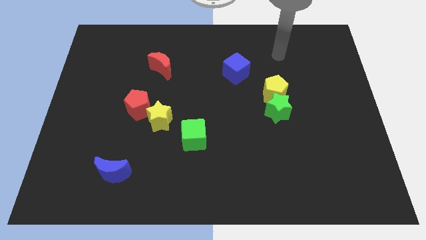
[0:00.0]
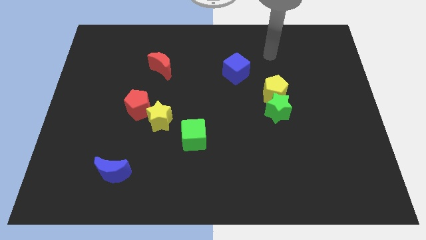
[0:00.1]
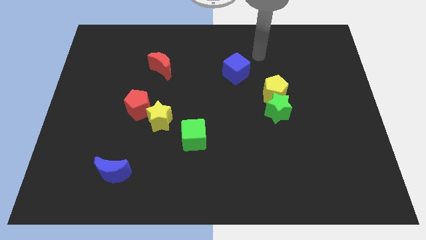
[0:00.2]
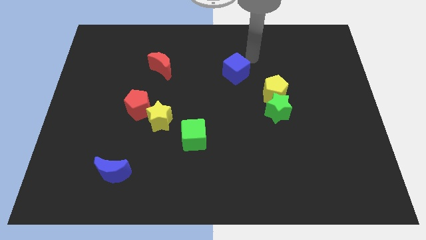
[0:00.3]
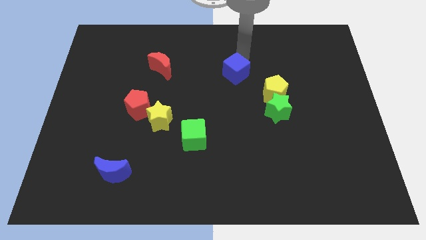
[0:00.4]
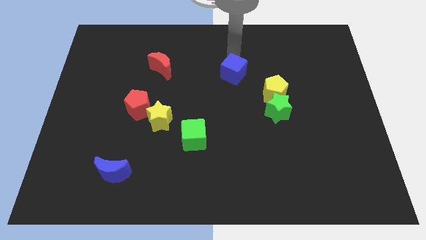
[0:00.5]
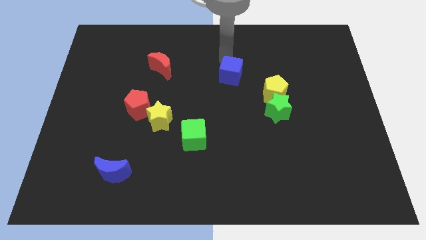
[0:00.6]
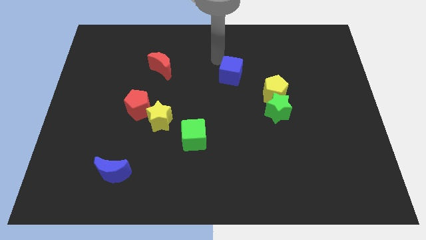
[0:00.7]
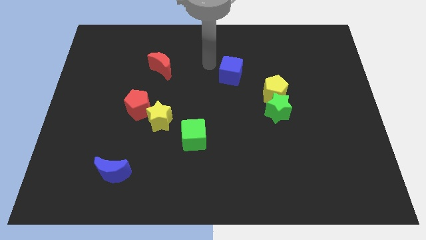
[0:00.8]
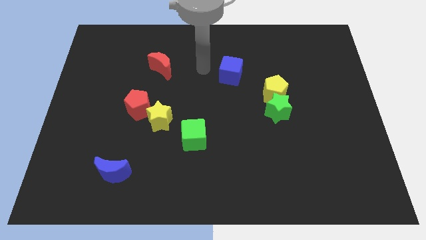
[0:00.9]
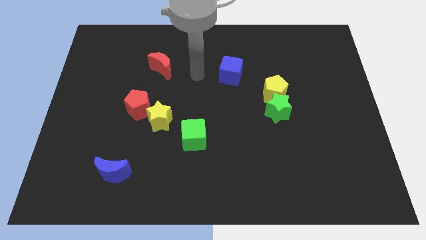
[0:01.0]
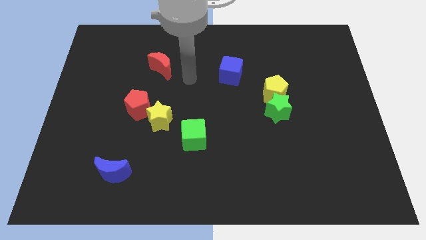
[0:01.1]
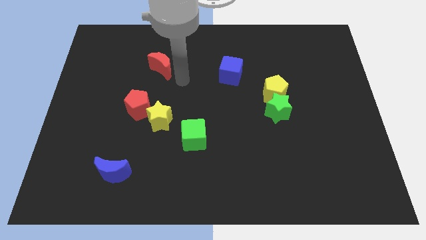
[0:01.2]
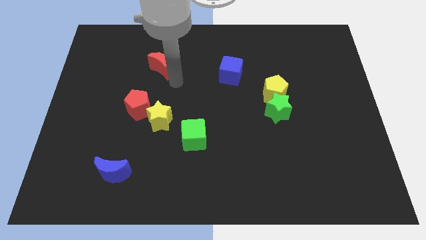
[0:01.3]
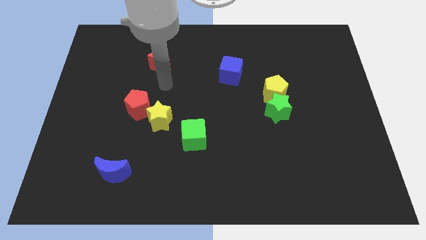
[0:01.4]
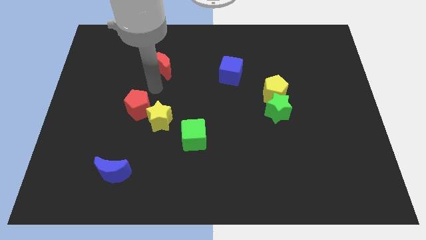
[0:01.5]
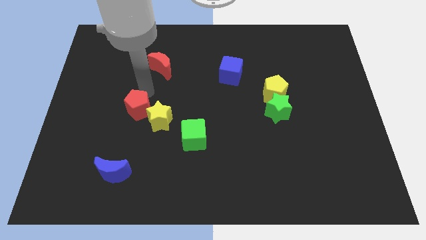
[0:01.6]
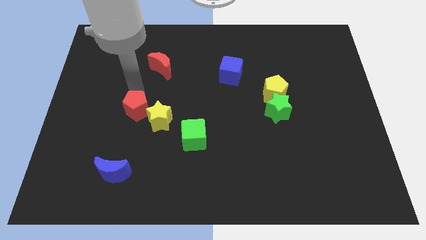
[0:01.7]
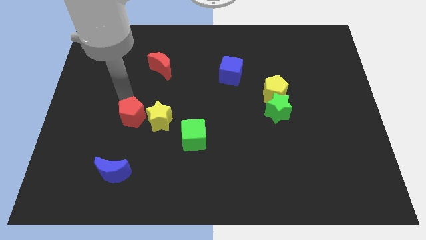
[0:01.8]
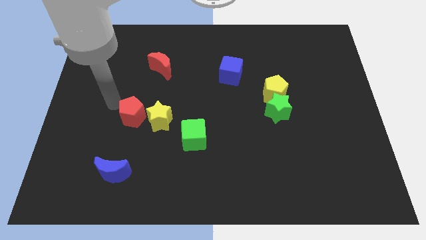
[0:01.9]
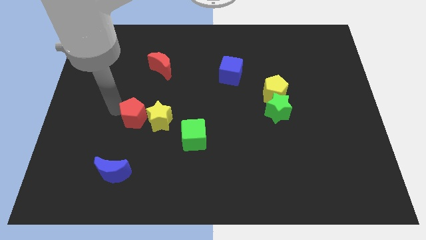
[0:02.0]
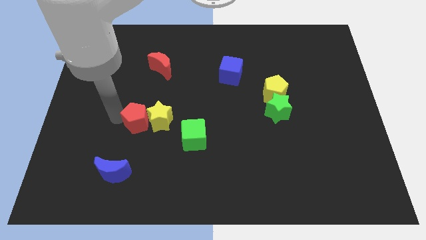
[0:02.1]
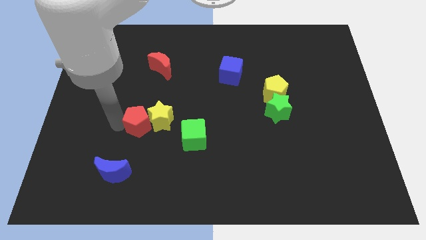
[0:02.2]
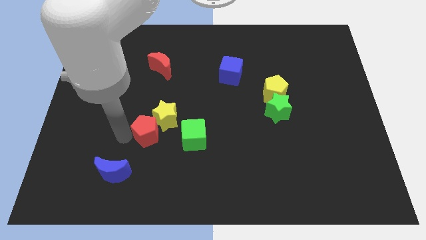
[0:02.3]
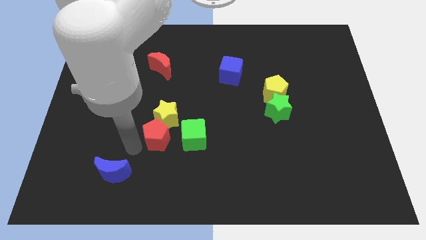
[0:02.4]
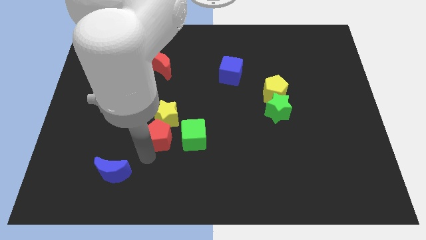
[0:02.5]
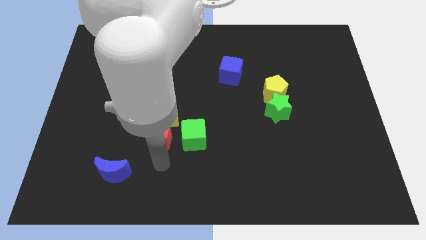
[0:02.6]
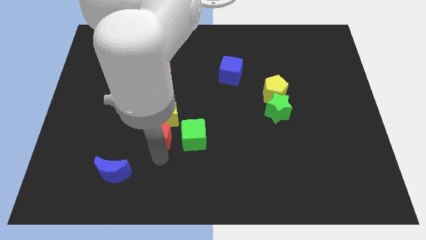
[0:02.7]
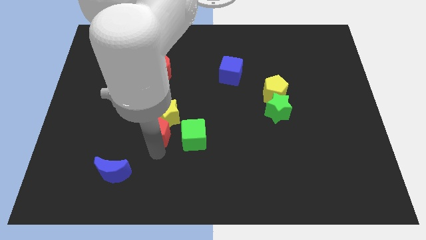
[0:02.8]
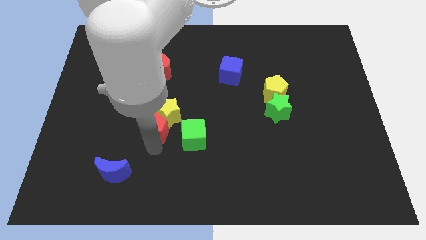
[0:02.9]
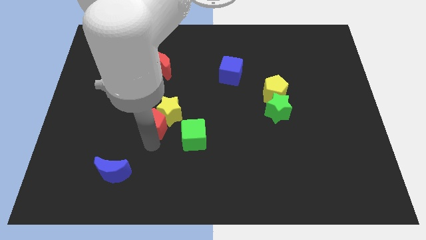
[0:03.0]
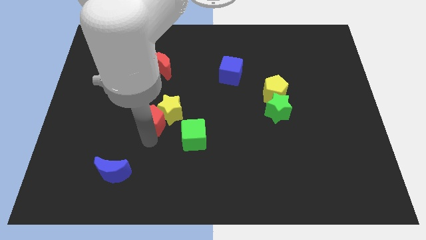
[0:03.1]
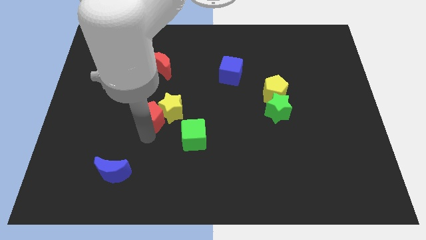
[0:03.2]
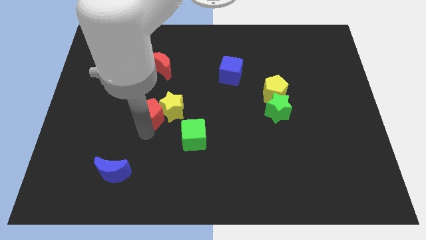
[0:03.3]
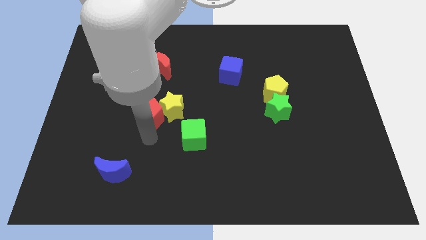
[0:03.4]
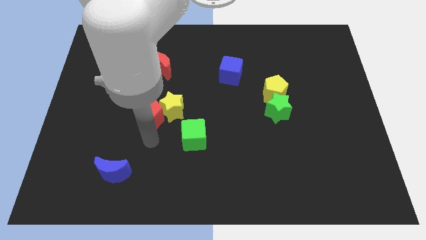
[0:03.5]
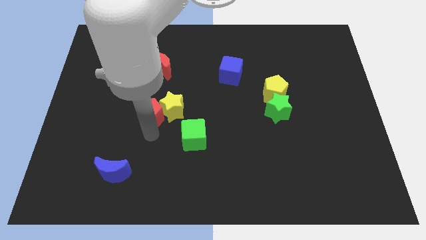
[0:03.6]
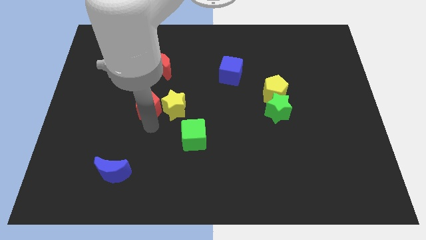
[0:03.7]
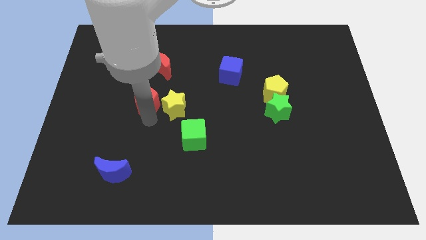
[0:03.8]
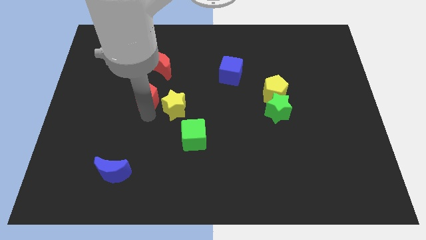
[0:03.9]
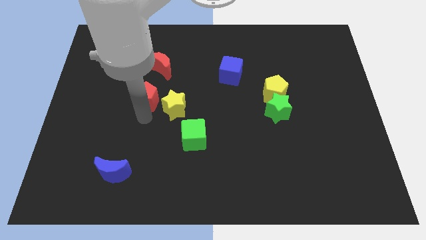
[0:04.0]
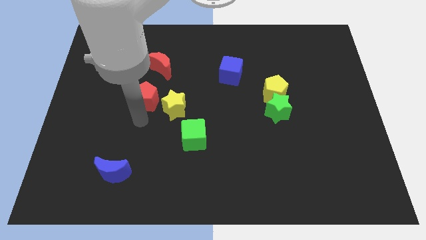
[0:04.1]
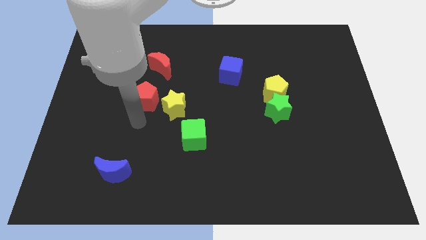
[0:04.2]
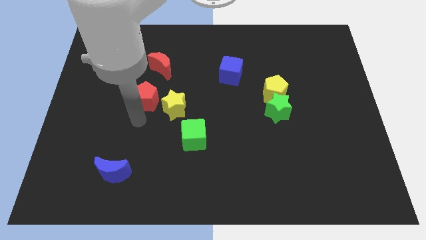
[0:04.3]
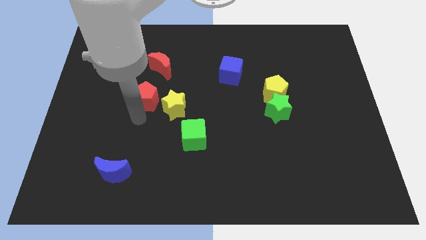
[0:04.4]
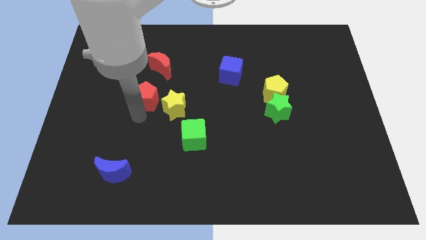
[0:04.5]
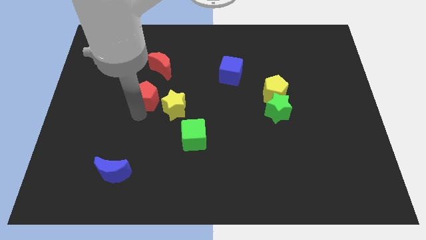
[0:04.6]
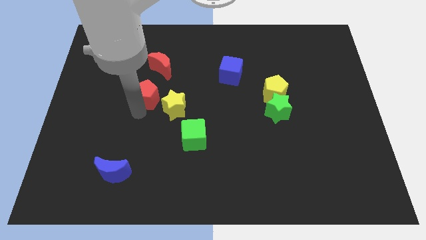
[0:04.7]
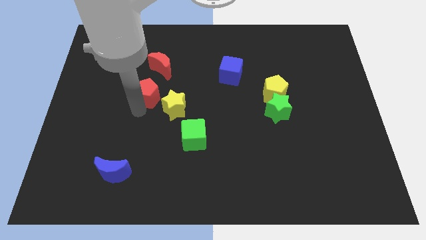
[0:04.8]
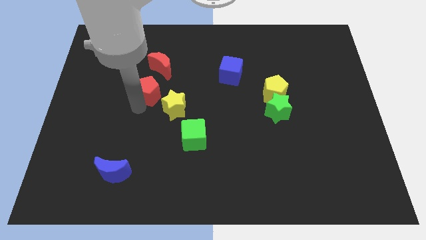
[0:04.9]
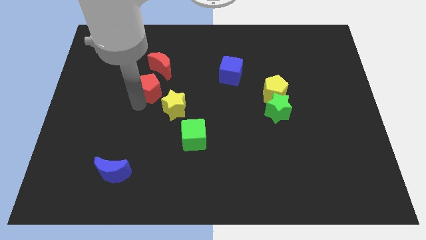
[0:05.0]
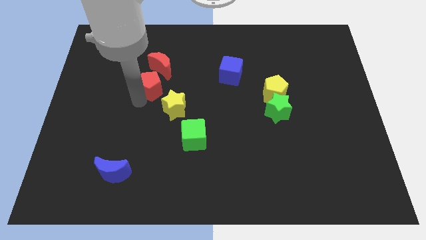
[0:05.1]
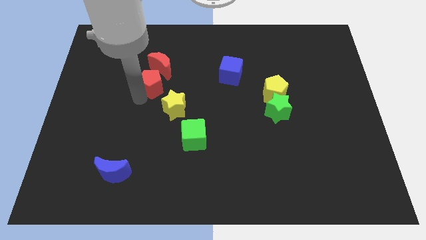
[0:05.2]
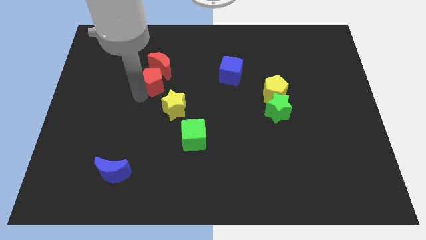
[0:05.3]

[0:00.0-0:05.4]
put the red pentagon close to the red moon

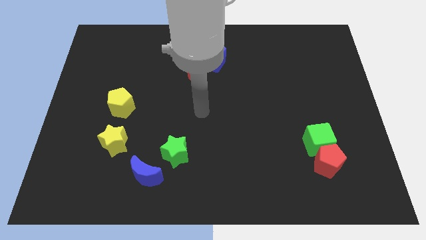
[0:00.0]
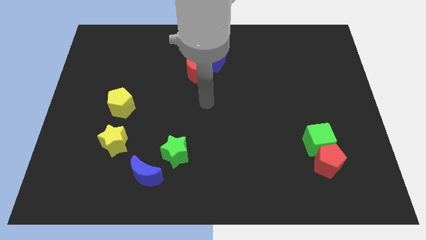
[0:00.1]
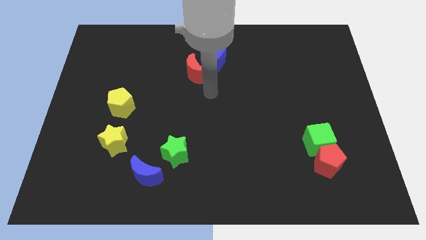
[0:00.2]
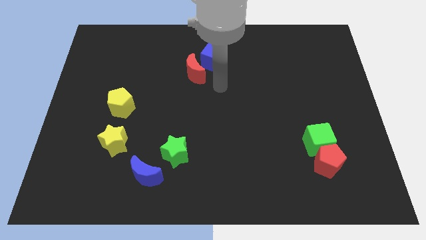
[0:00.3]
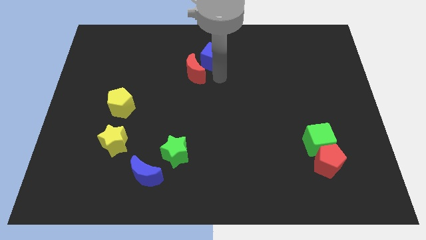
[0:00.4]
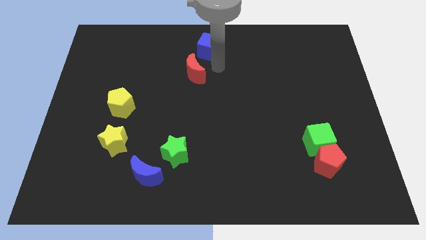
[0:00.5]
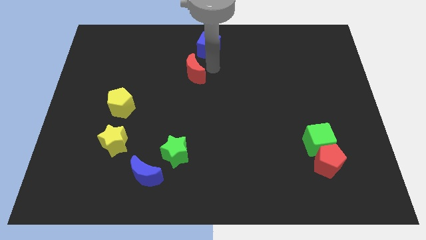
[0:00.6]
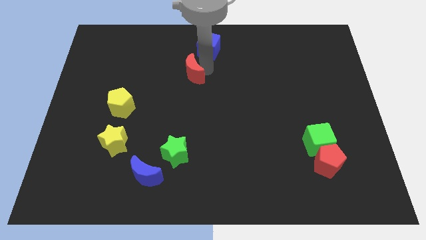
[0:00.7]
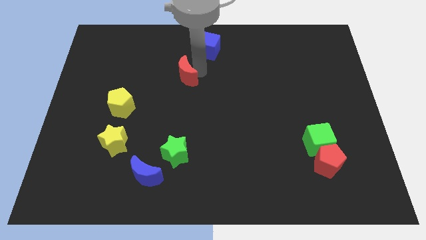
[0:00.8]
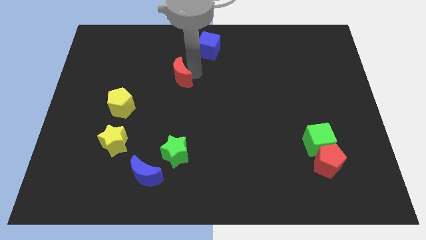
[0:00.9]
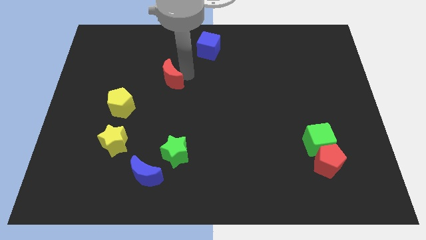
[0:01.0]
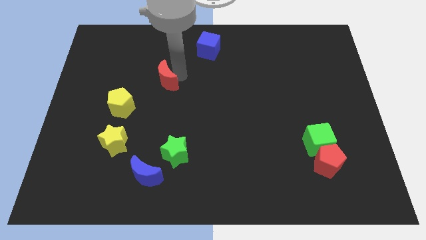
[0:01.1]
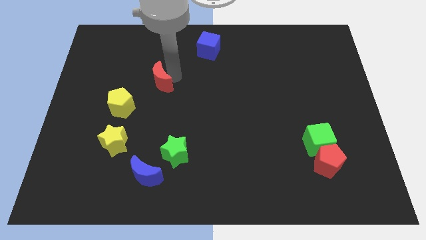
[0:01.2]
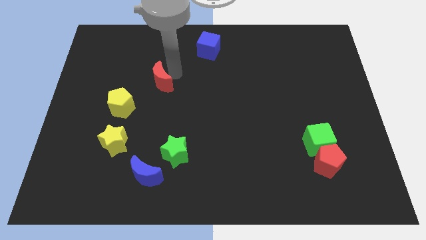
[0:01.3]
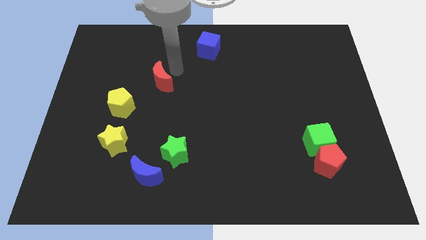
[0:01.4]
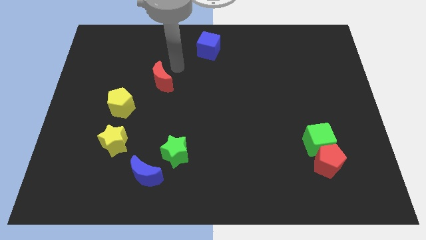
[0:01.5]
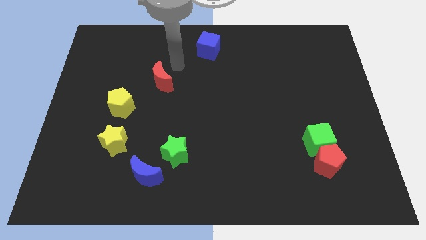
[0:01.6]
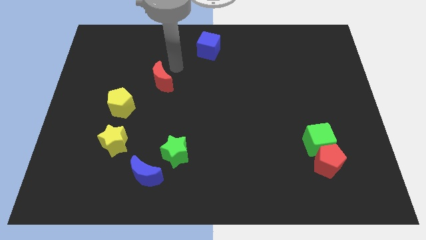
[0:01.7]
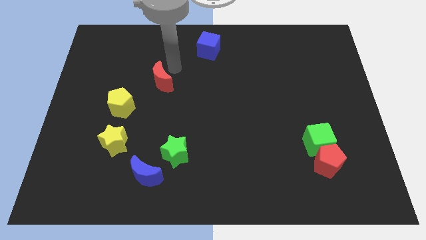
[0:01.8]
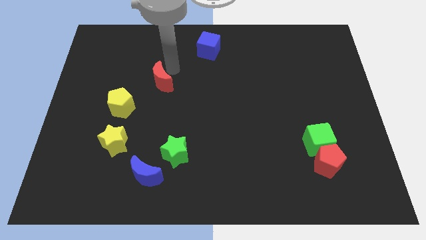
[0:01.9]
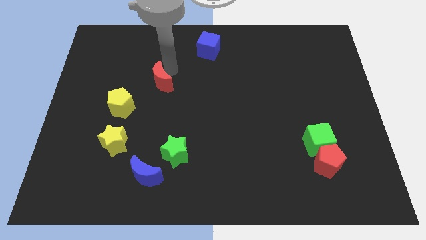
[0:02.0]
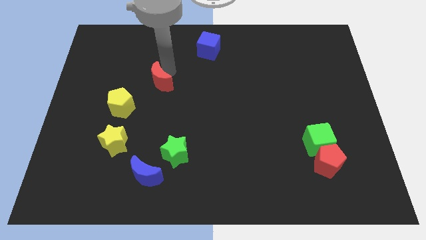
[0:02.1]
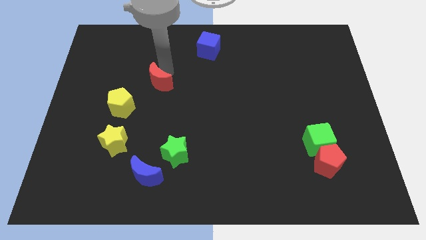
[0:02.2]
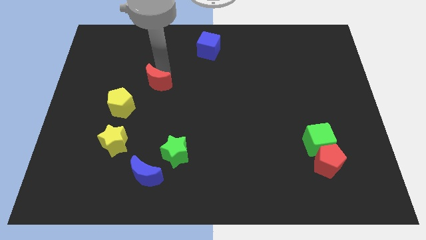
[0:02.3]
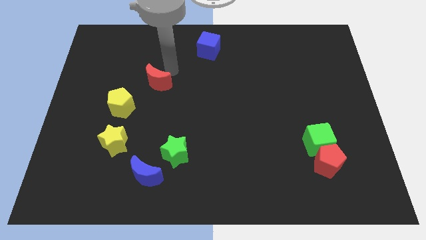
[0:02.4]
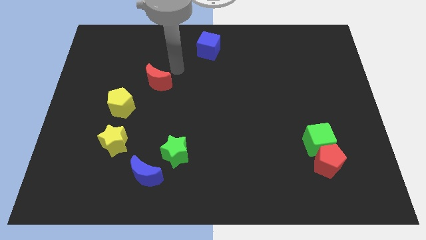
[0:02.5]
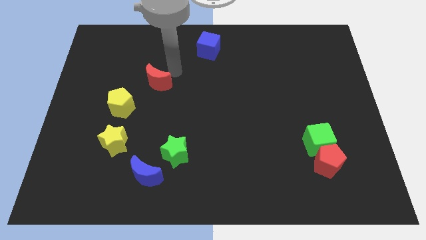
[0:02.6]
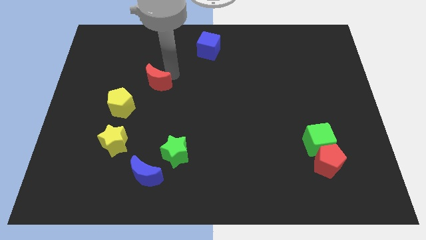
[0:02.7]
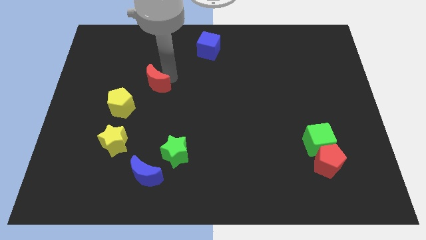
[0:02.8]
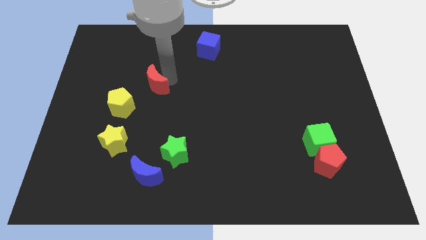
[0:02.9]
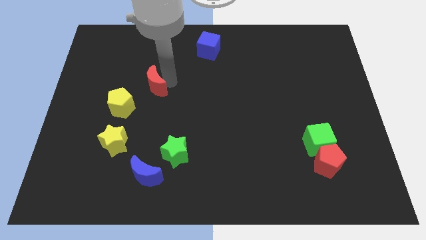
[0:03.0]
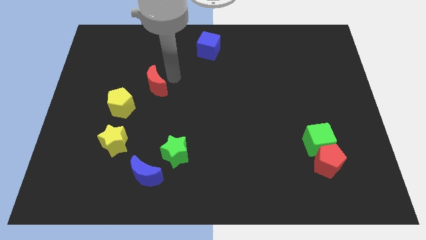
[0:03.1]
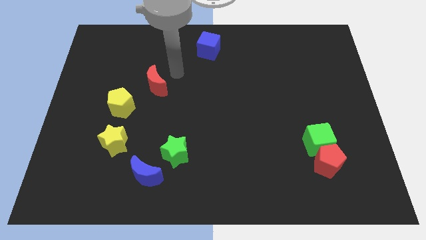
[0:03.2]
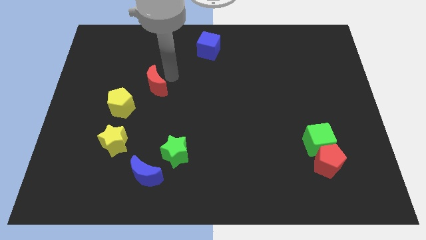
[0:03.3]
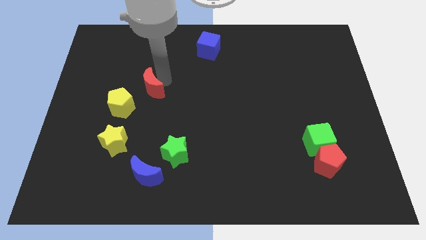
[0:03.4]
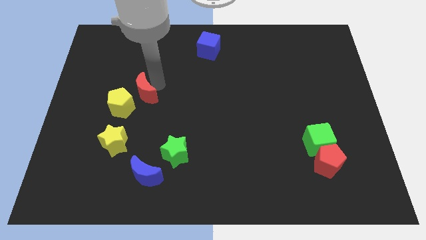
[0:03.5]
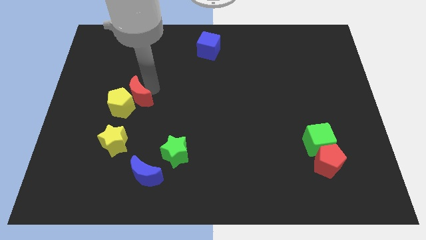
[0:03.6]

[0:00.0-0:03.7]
slide the red moon next to the yellow pentagon
